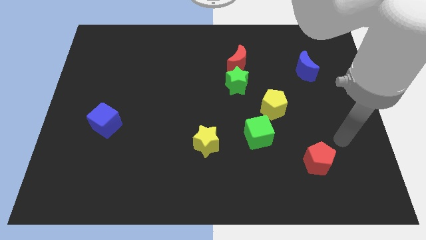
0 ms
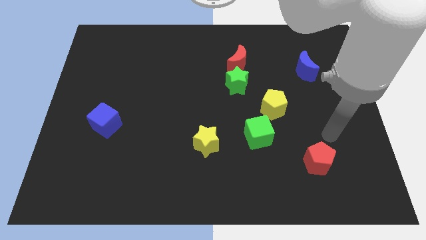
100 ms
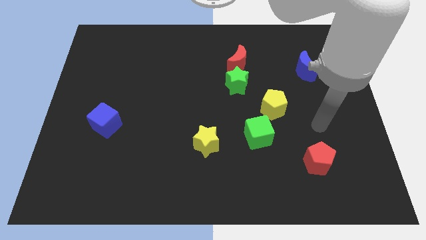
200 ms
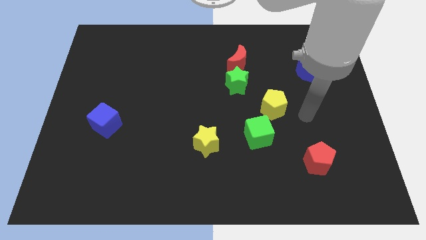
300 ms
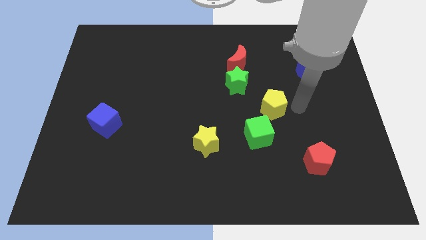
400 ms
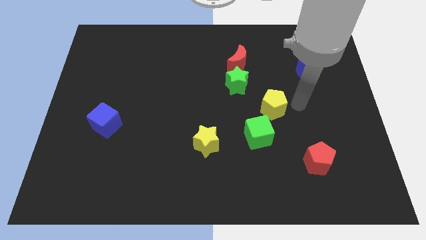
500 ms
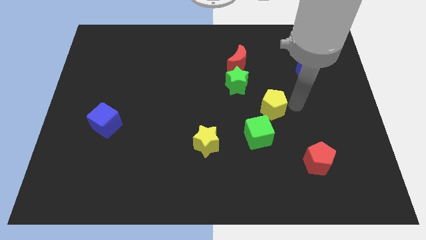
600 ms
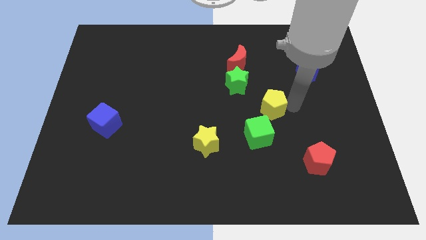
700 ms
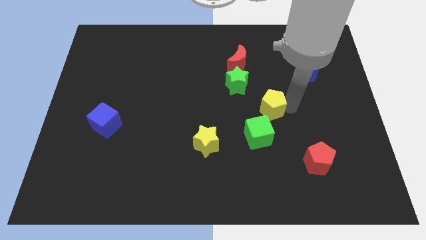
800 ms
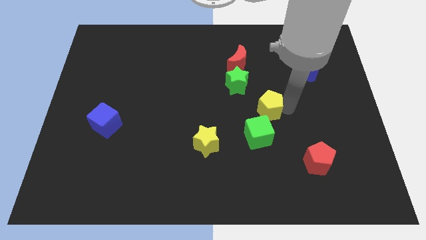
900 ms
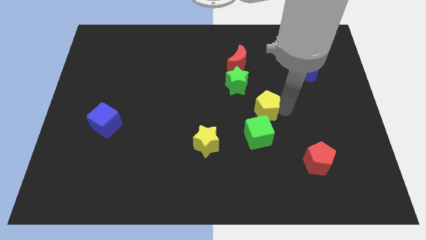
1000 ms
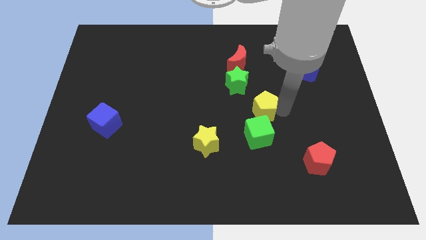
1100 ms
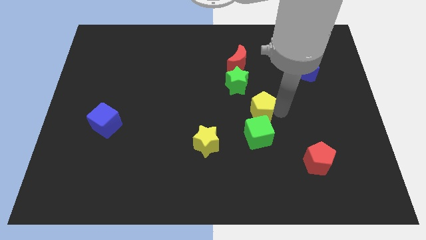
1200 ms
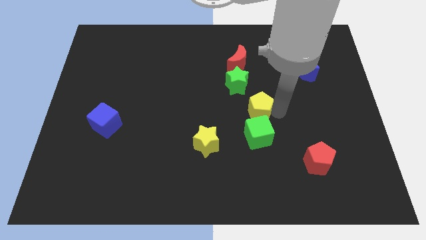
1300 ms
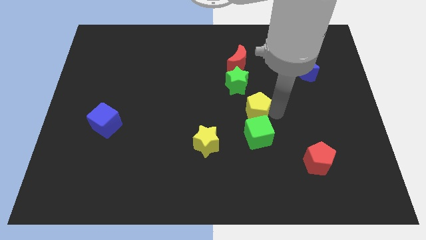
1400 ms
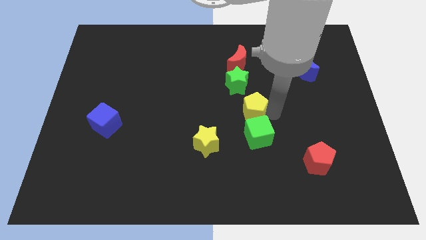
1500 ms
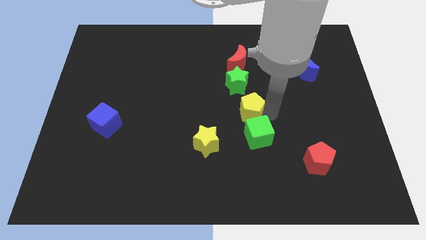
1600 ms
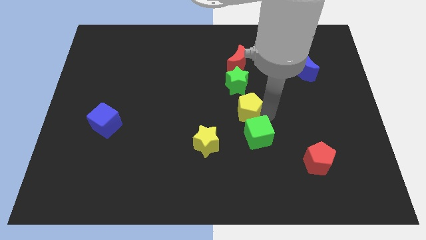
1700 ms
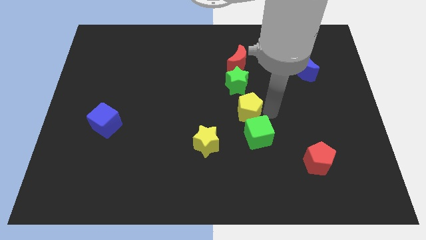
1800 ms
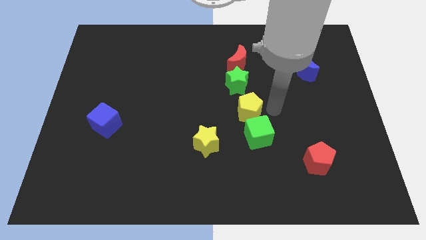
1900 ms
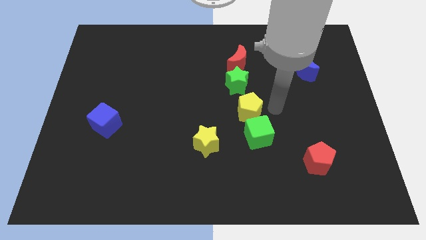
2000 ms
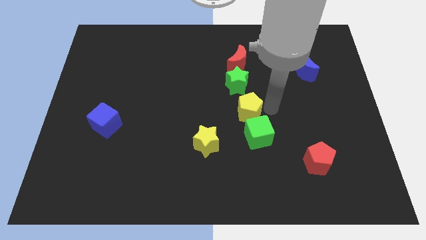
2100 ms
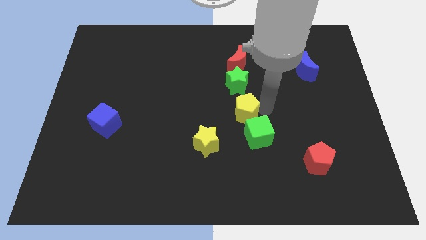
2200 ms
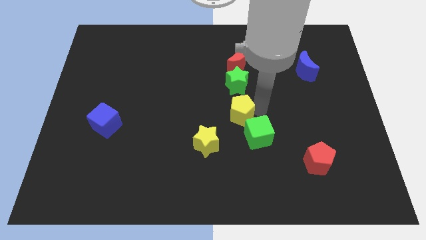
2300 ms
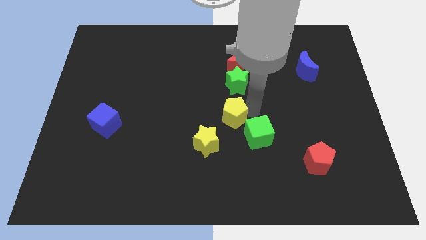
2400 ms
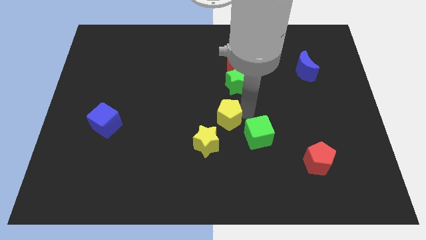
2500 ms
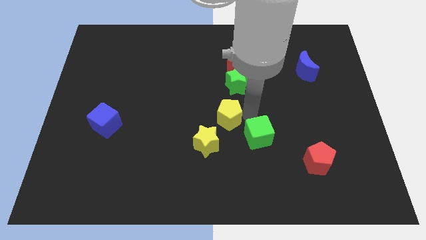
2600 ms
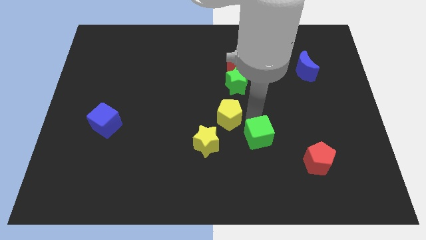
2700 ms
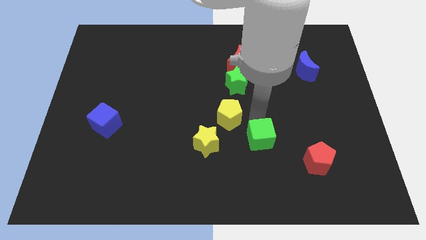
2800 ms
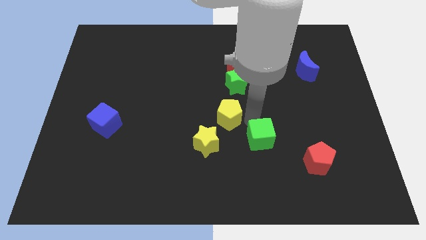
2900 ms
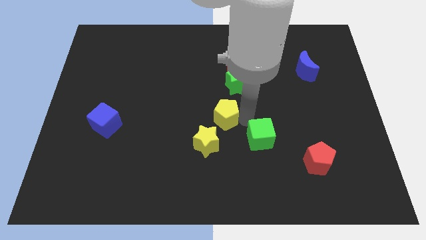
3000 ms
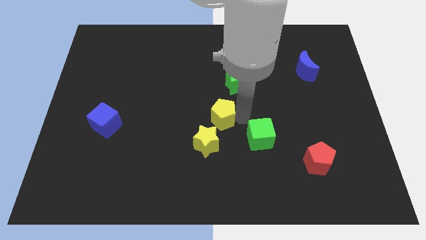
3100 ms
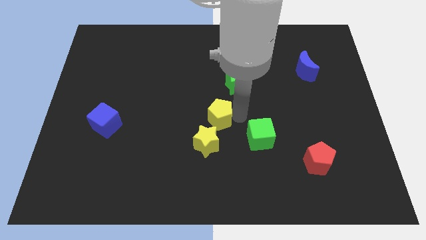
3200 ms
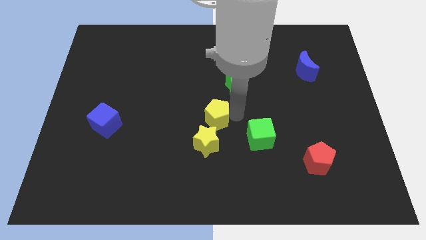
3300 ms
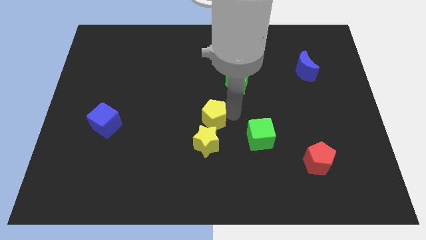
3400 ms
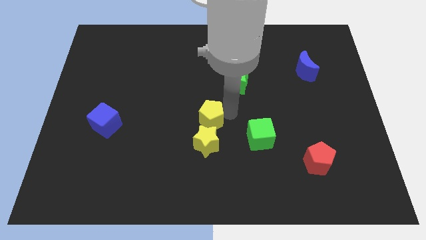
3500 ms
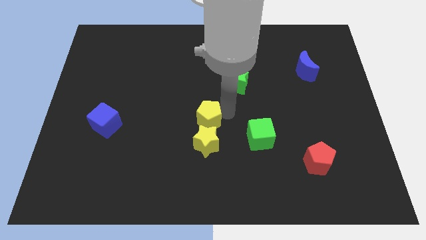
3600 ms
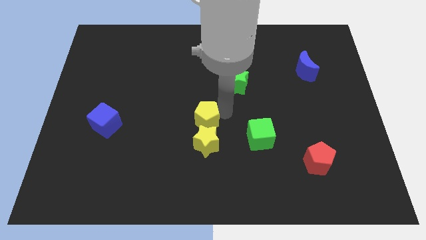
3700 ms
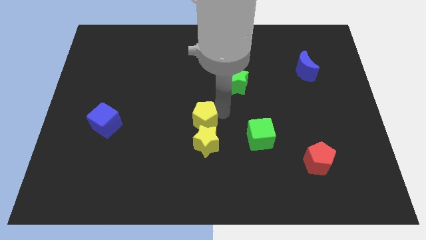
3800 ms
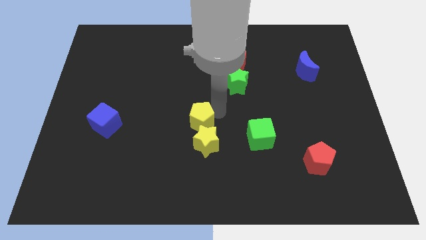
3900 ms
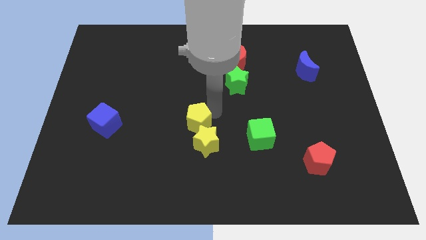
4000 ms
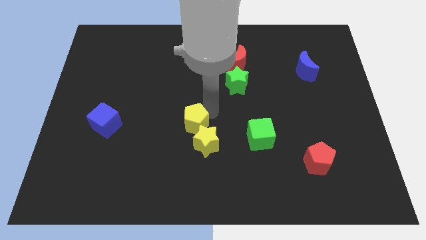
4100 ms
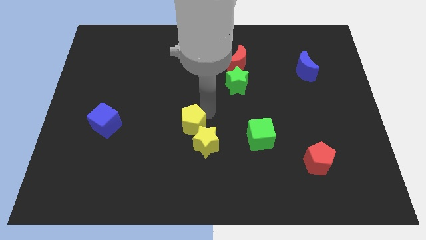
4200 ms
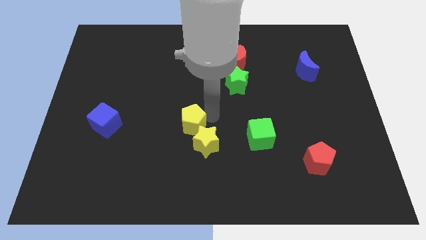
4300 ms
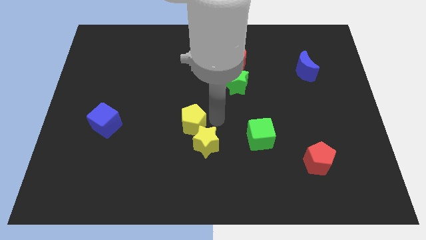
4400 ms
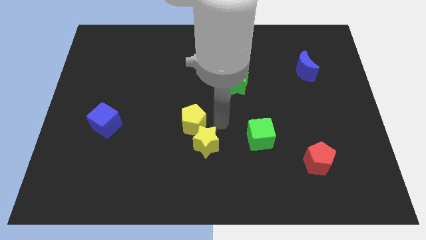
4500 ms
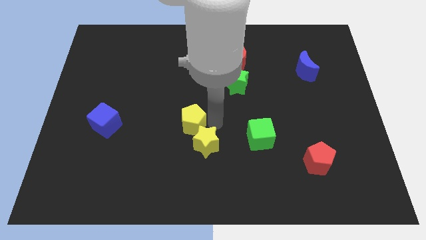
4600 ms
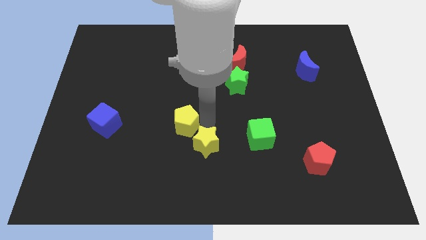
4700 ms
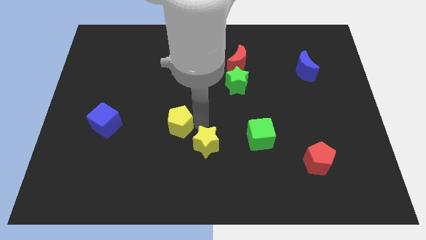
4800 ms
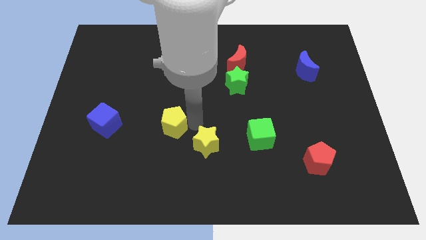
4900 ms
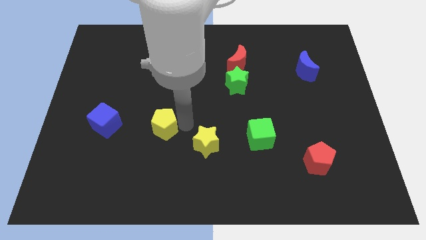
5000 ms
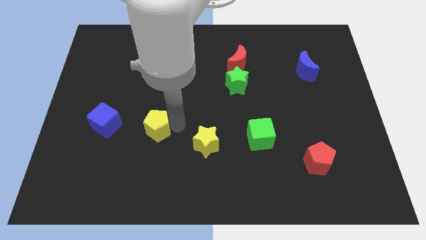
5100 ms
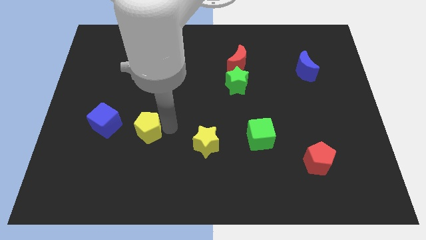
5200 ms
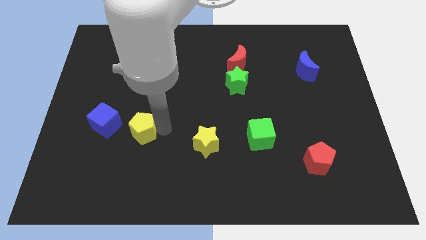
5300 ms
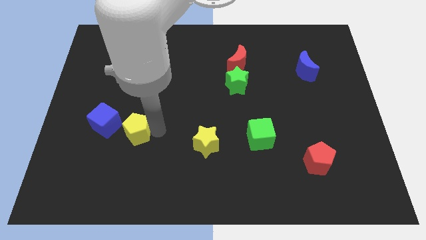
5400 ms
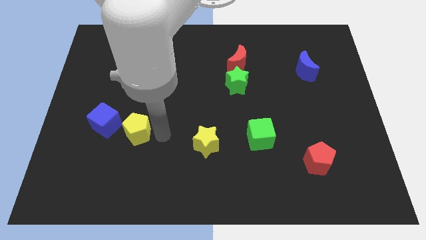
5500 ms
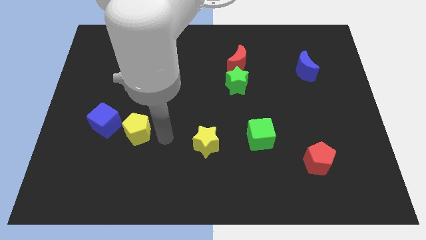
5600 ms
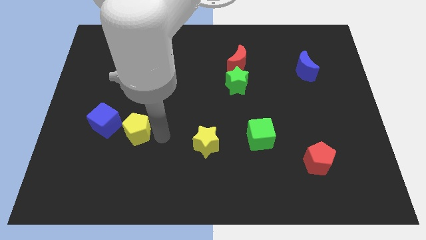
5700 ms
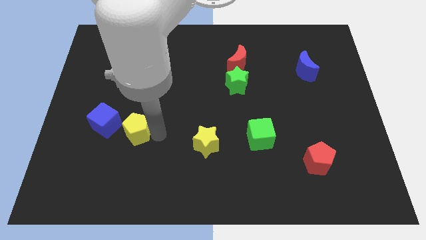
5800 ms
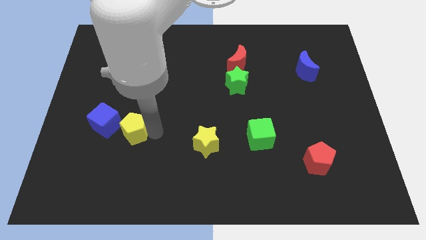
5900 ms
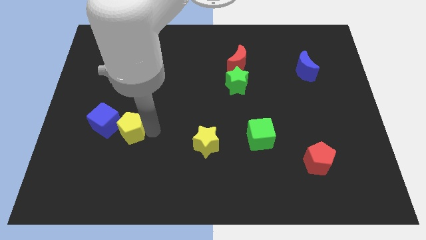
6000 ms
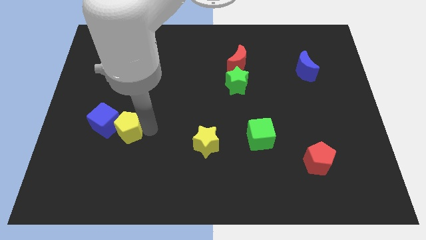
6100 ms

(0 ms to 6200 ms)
put the yellow pentagon towards the blue cube

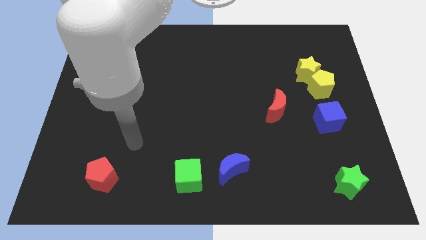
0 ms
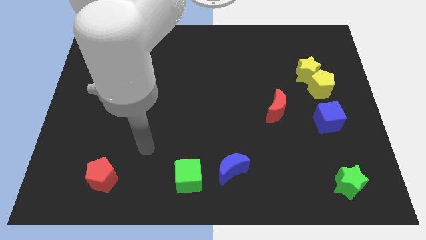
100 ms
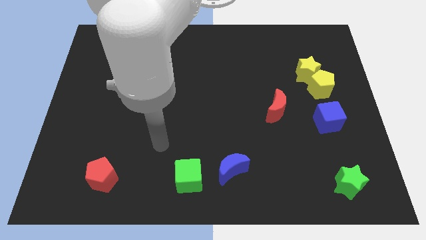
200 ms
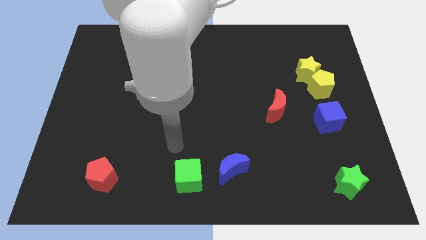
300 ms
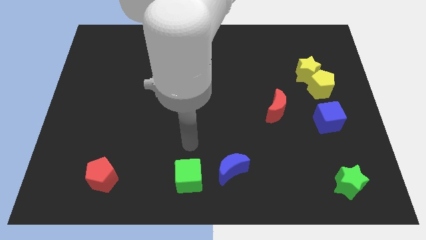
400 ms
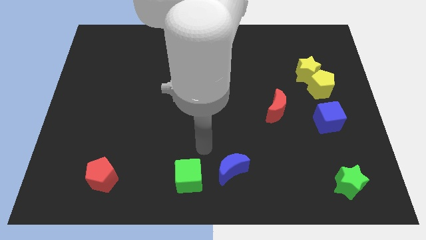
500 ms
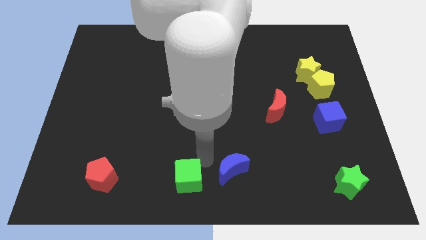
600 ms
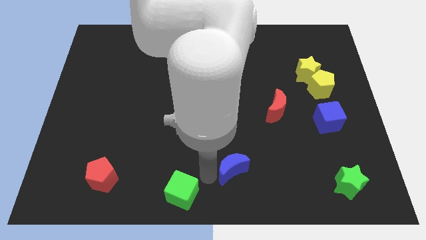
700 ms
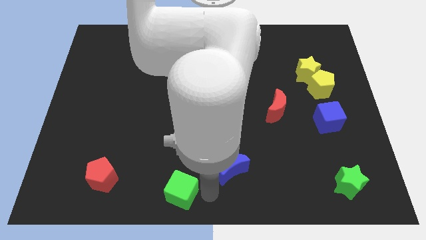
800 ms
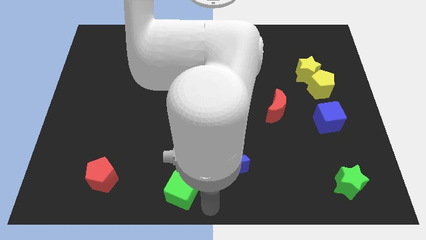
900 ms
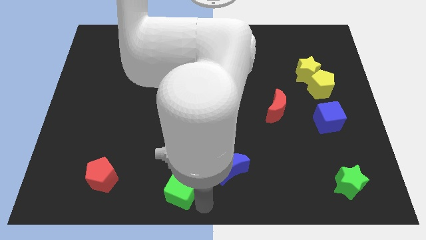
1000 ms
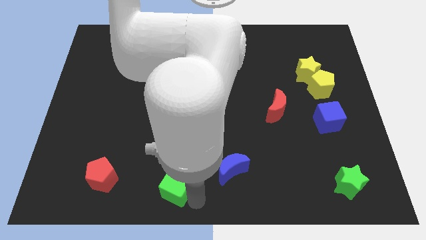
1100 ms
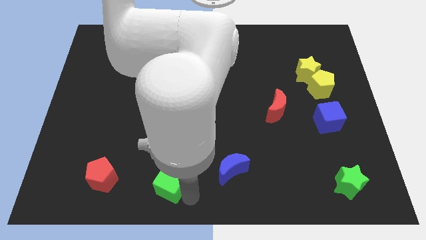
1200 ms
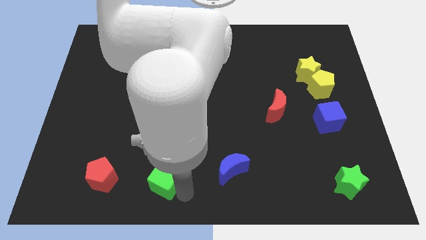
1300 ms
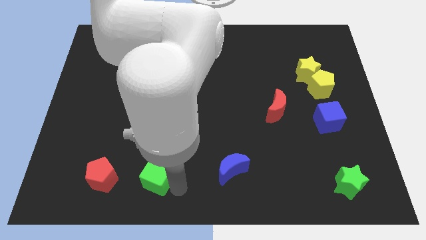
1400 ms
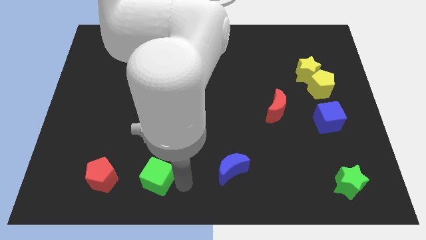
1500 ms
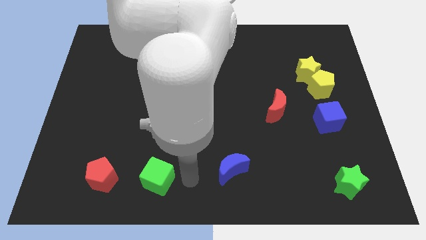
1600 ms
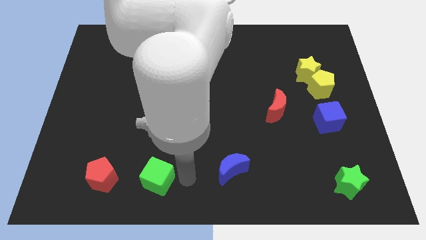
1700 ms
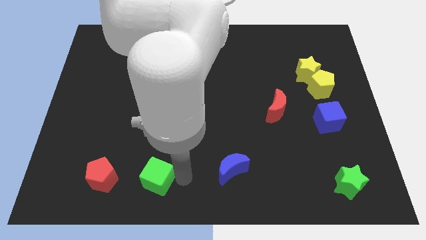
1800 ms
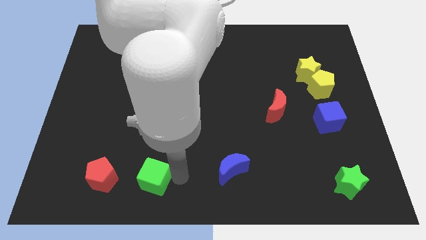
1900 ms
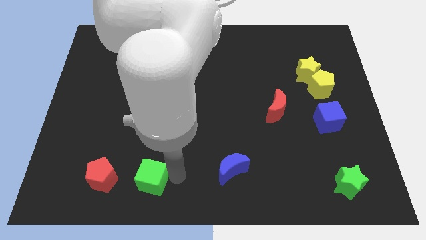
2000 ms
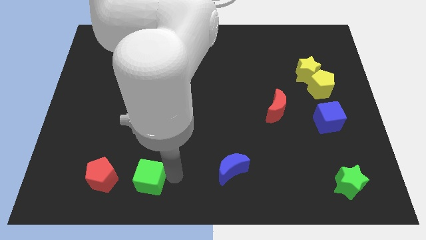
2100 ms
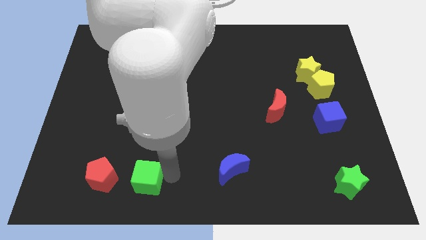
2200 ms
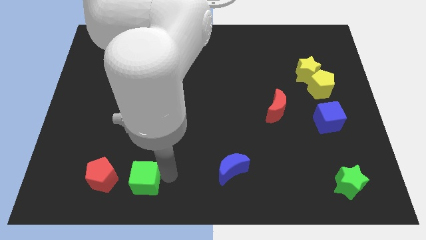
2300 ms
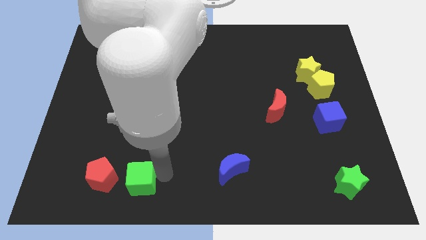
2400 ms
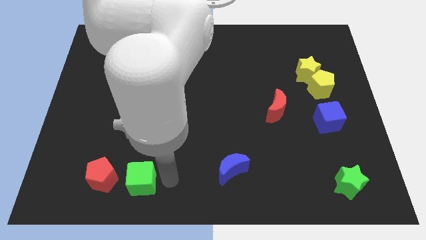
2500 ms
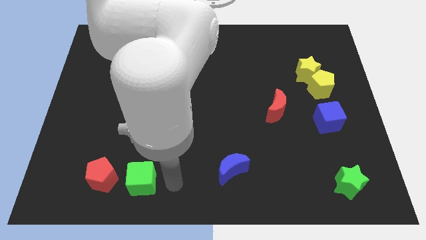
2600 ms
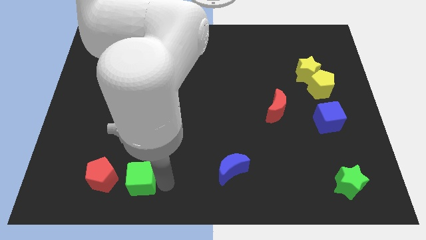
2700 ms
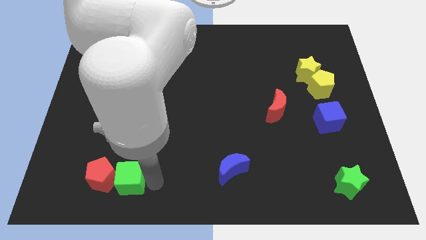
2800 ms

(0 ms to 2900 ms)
slide the green cube towards the red pentagon
